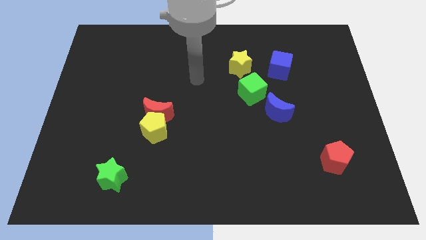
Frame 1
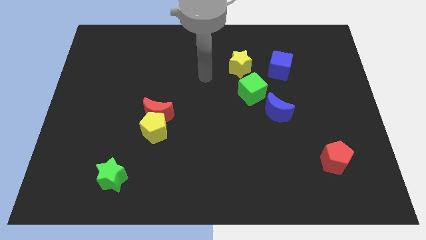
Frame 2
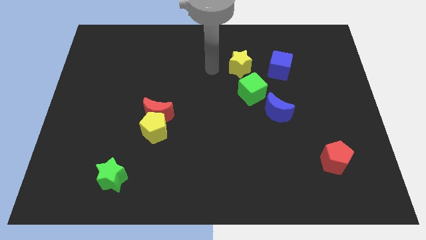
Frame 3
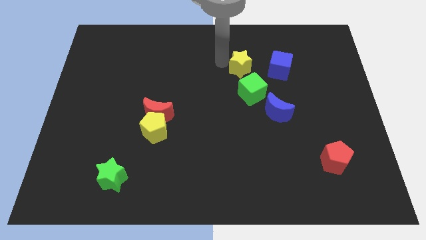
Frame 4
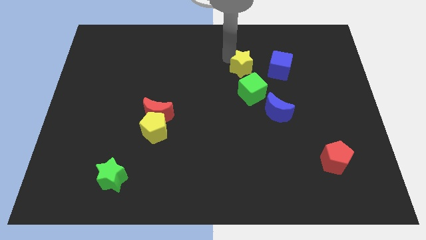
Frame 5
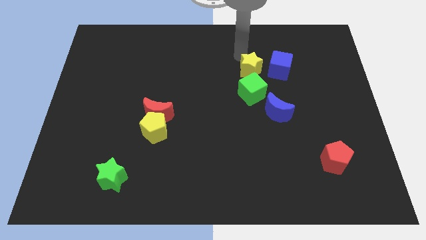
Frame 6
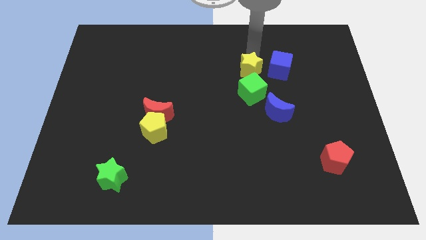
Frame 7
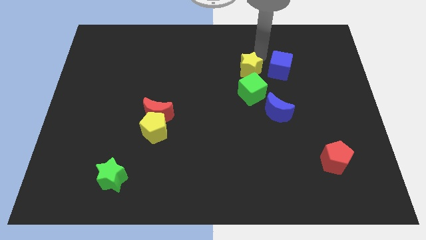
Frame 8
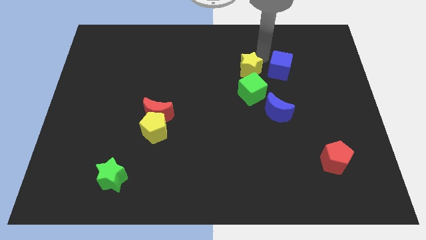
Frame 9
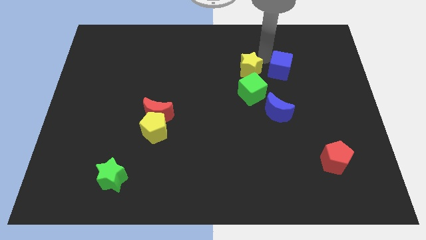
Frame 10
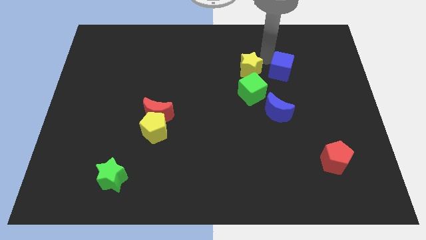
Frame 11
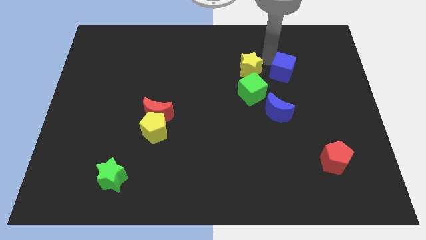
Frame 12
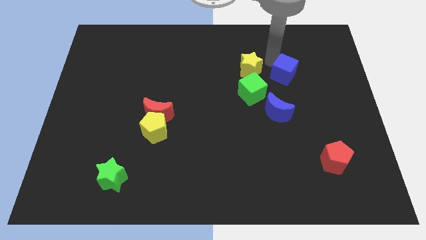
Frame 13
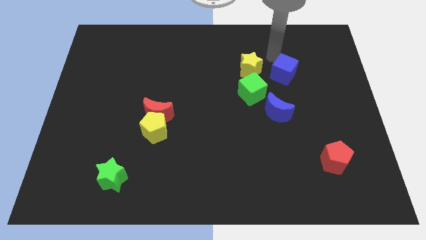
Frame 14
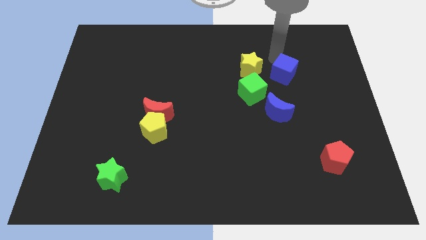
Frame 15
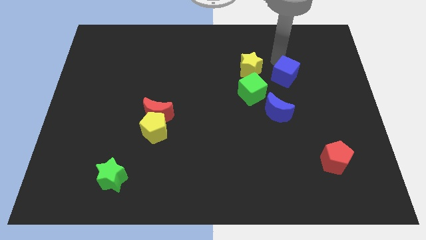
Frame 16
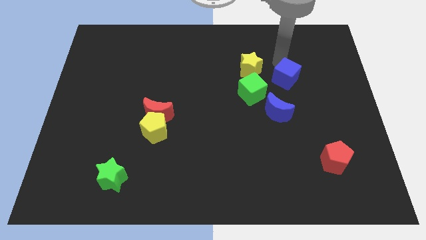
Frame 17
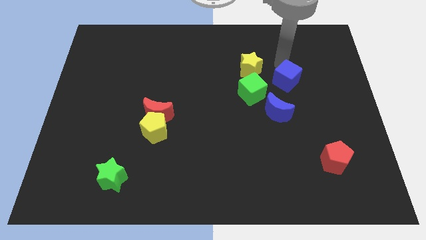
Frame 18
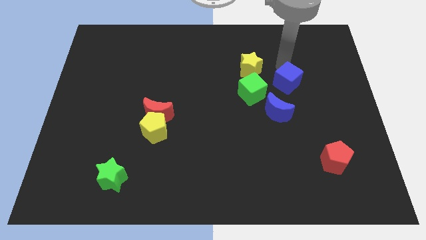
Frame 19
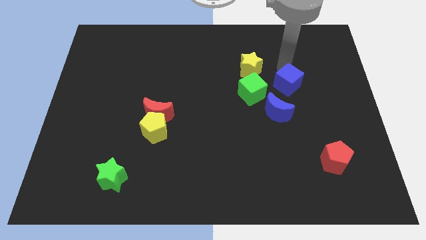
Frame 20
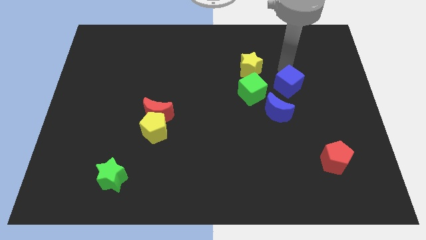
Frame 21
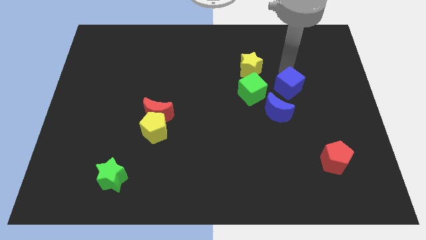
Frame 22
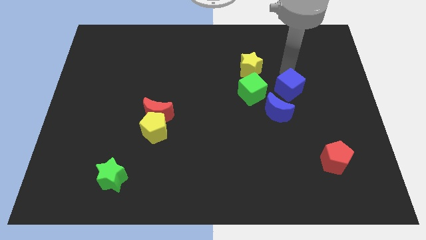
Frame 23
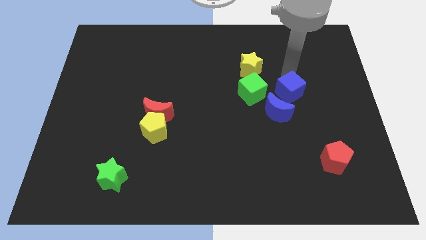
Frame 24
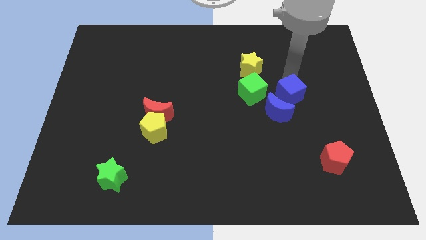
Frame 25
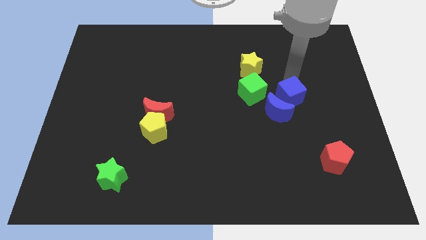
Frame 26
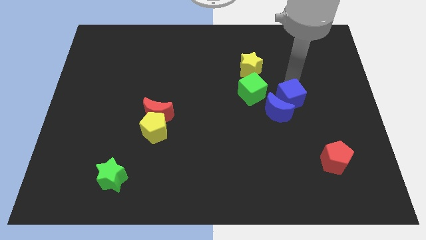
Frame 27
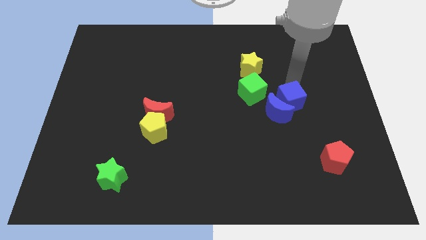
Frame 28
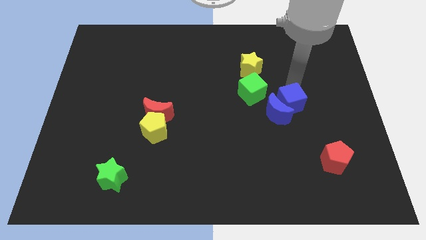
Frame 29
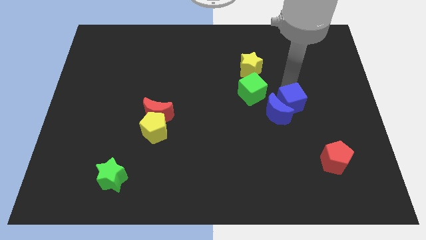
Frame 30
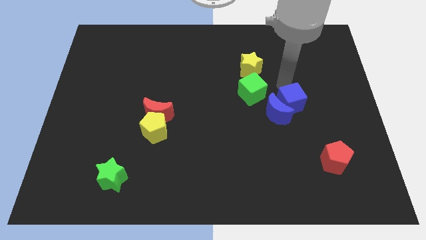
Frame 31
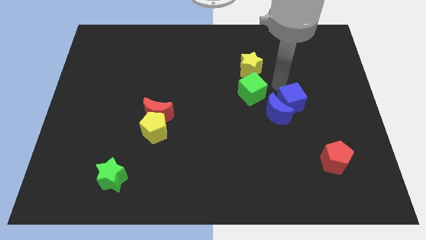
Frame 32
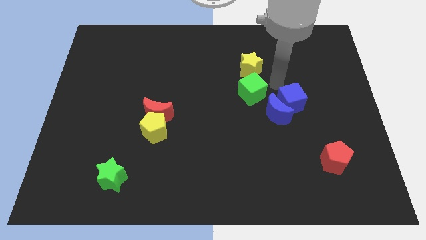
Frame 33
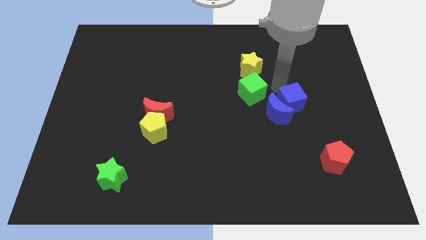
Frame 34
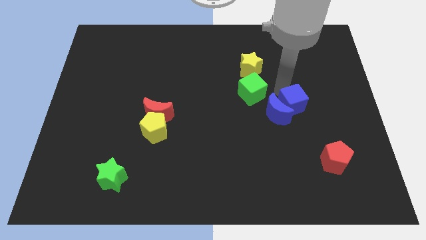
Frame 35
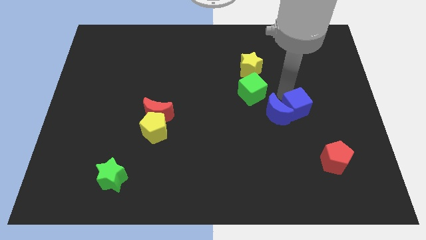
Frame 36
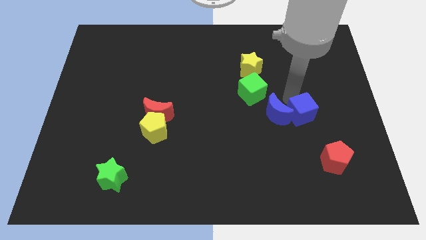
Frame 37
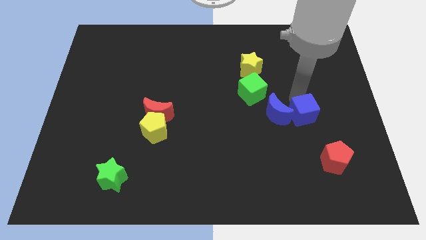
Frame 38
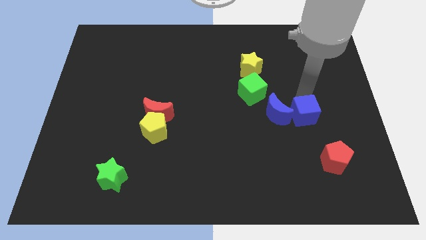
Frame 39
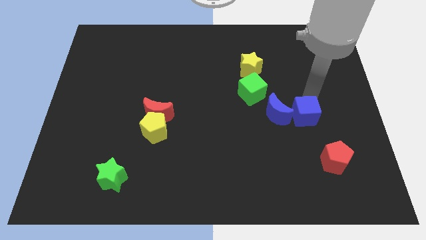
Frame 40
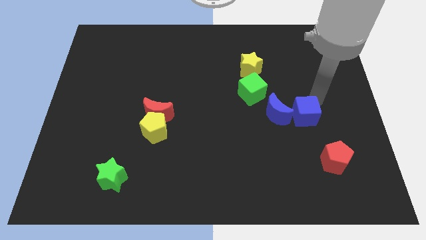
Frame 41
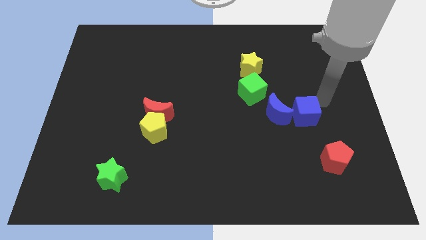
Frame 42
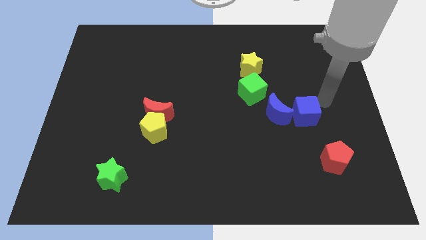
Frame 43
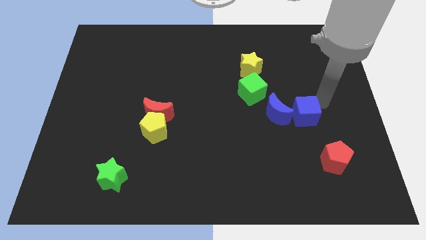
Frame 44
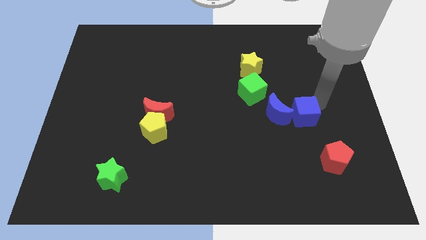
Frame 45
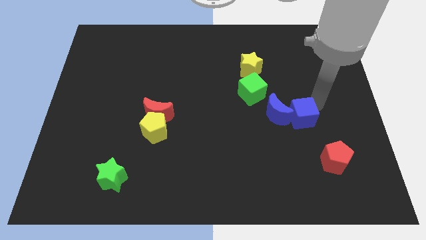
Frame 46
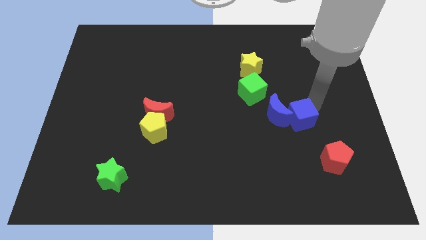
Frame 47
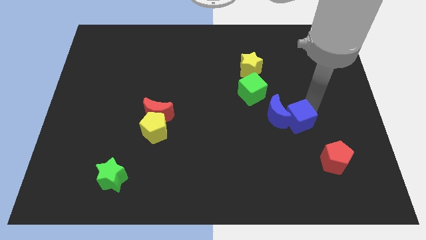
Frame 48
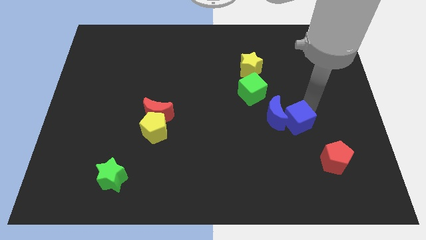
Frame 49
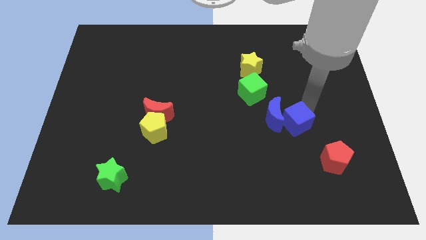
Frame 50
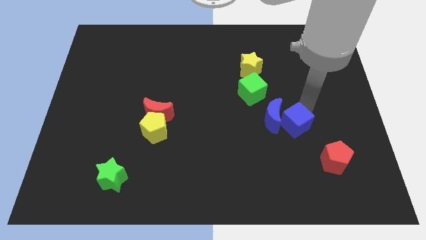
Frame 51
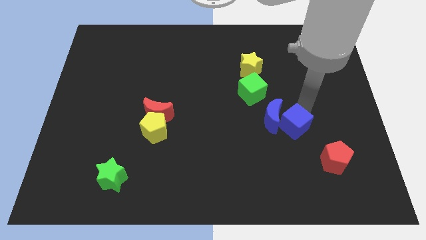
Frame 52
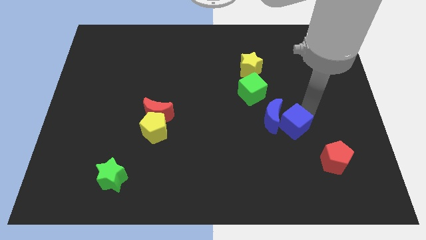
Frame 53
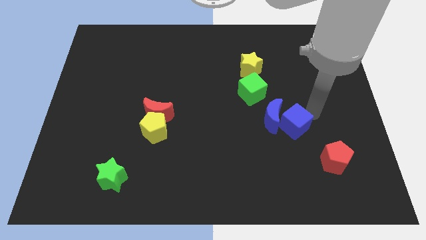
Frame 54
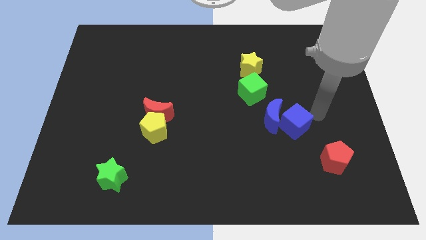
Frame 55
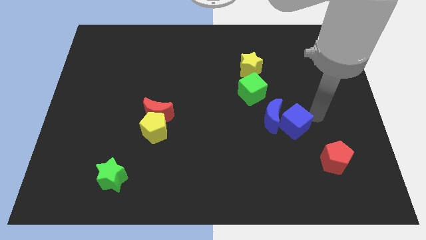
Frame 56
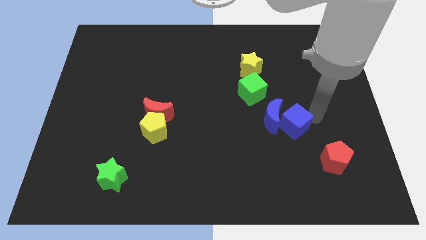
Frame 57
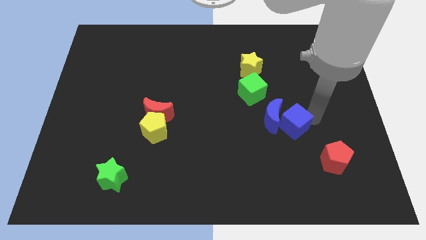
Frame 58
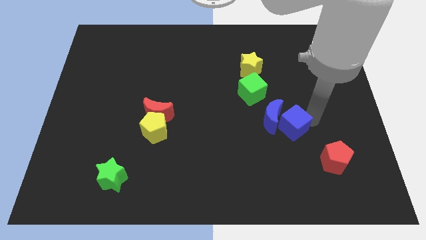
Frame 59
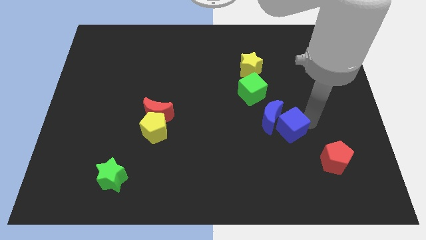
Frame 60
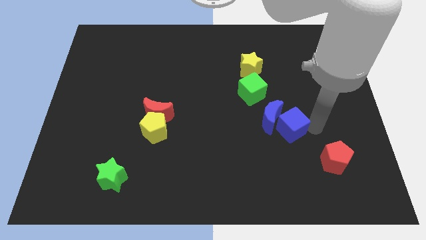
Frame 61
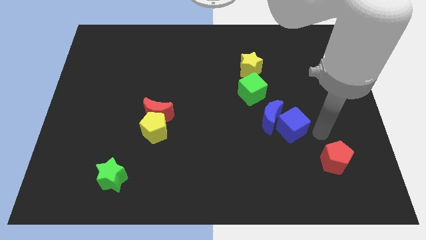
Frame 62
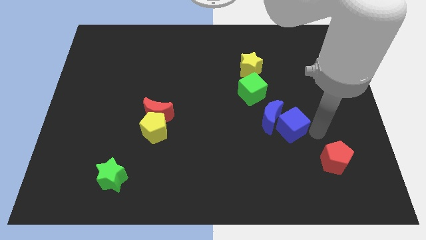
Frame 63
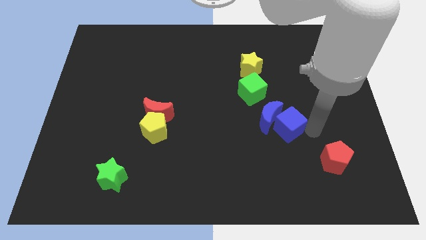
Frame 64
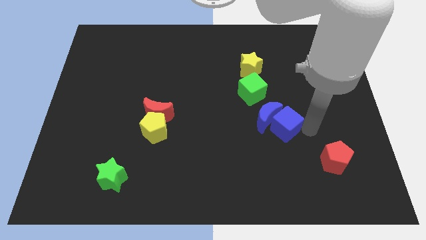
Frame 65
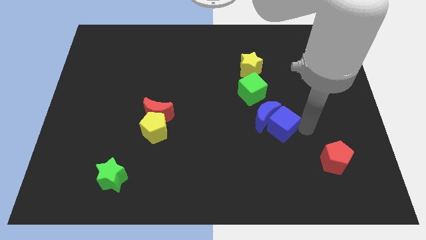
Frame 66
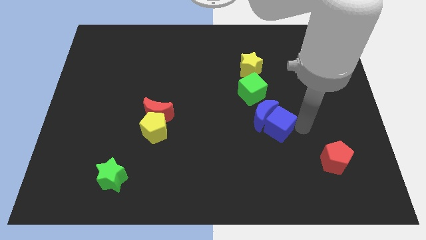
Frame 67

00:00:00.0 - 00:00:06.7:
slide the blue cube a little downwards and to the left

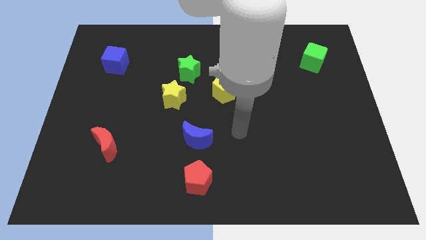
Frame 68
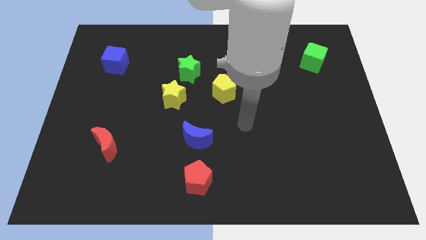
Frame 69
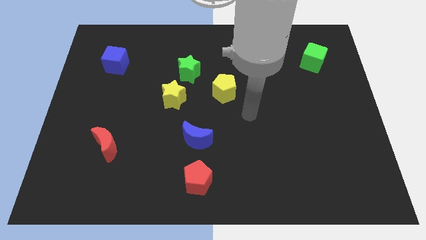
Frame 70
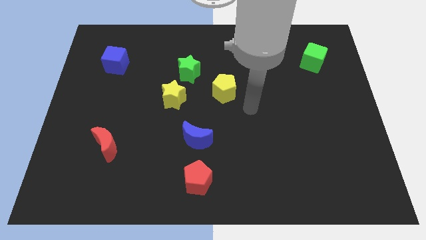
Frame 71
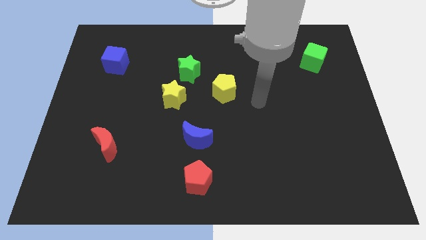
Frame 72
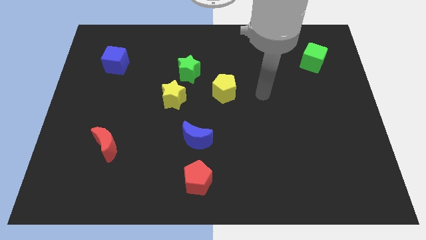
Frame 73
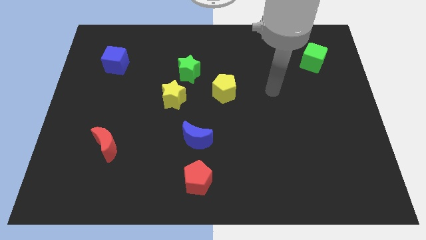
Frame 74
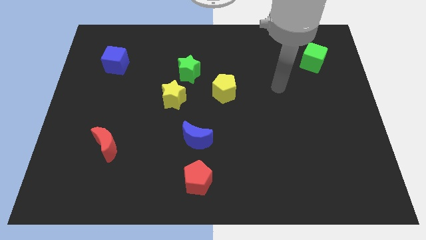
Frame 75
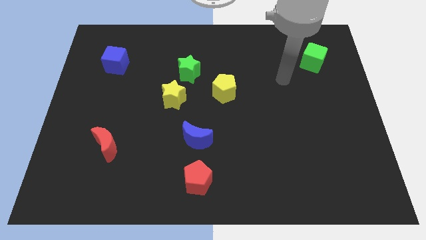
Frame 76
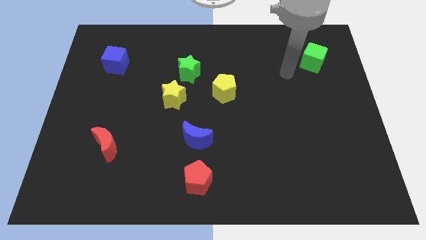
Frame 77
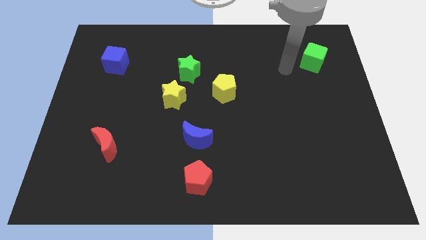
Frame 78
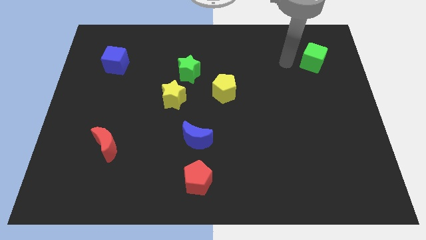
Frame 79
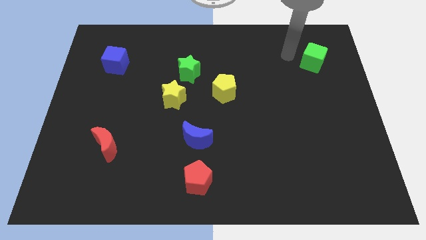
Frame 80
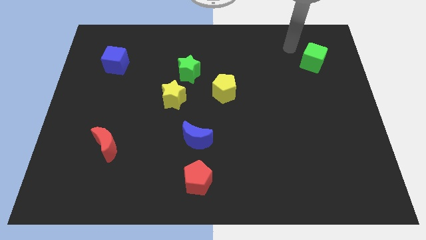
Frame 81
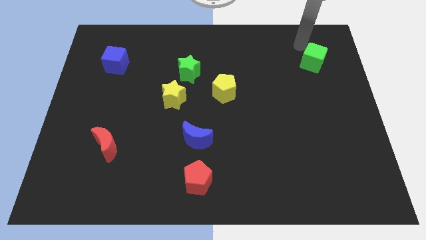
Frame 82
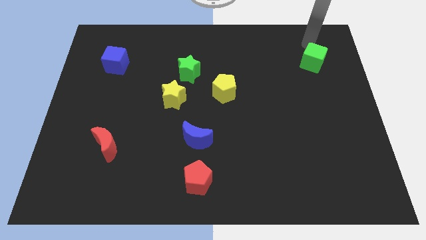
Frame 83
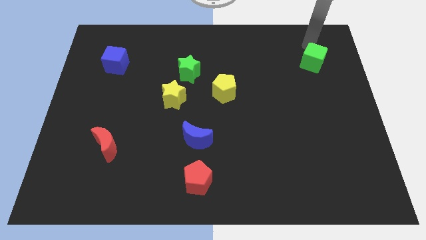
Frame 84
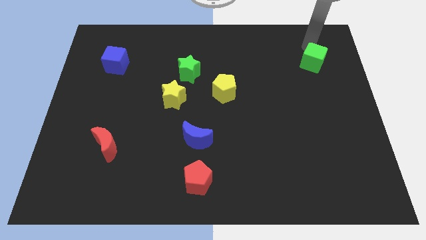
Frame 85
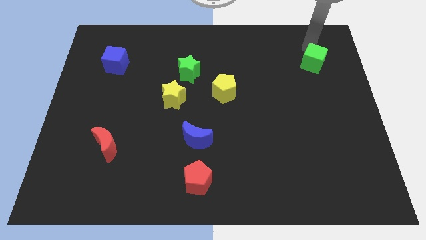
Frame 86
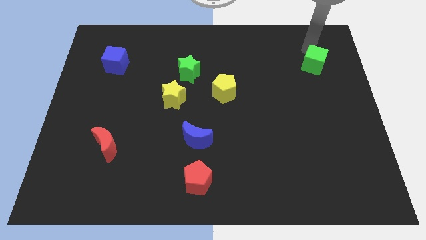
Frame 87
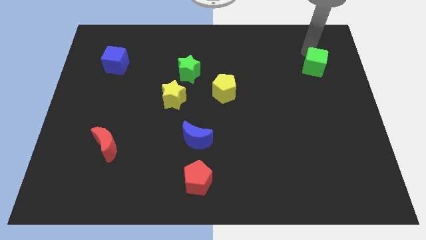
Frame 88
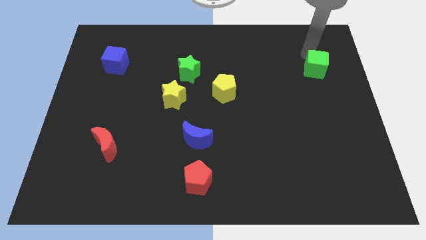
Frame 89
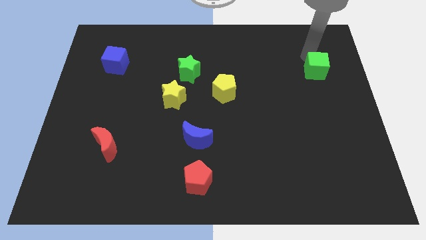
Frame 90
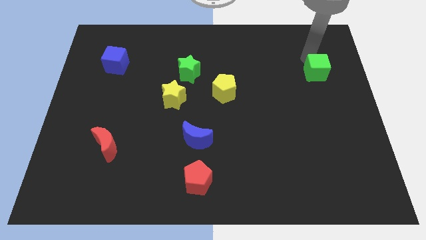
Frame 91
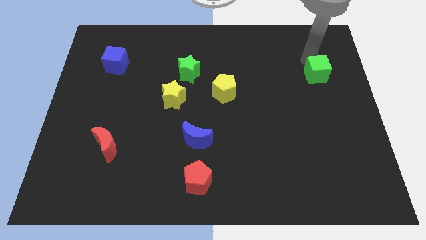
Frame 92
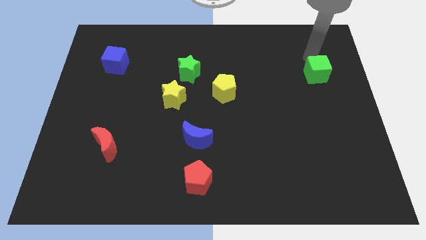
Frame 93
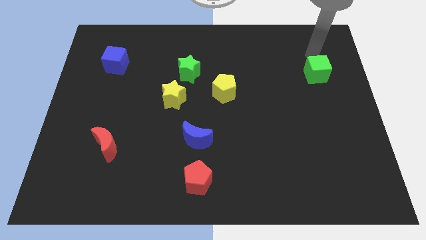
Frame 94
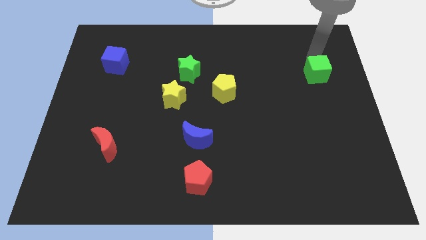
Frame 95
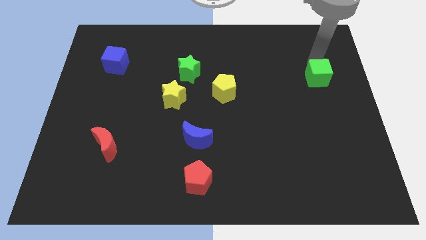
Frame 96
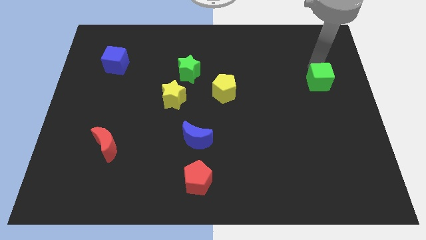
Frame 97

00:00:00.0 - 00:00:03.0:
slightly move the green cube down
